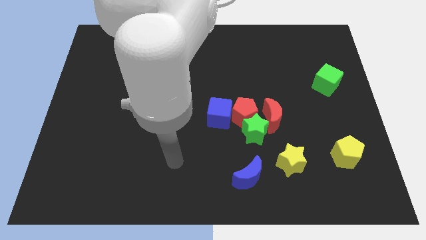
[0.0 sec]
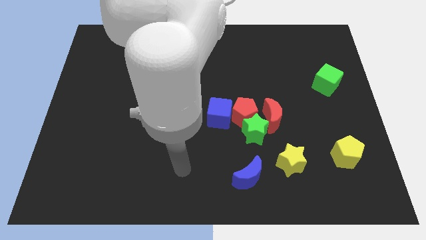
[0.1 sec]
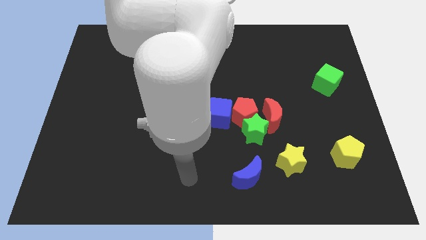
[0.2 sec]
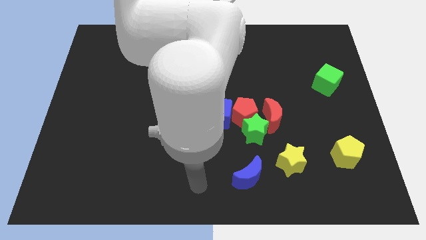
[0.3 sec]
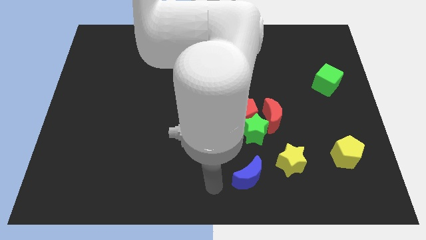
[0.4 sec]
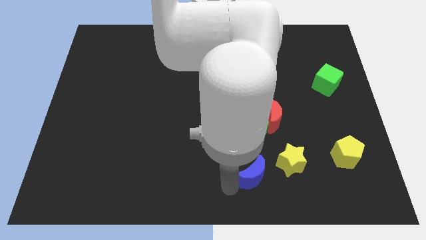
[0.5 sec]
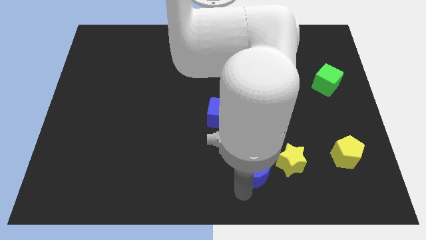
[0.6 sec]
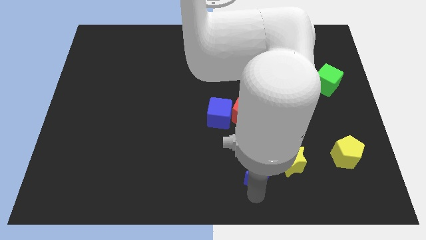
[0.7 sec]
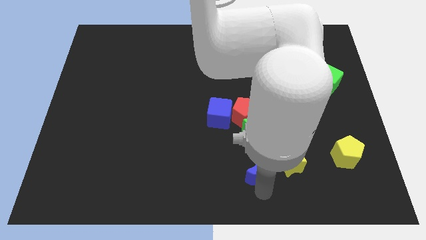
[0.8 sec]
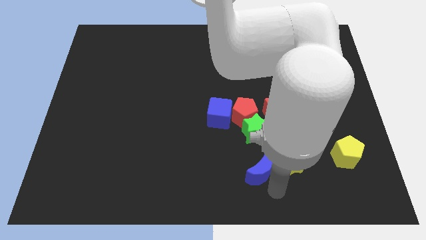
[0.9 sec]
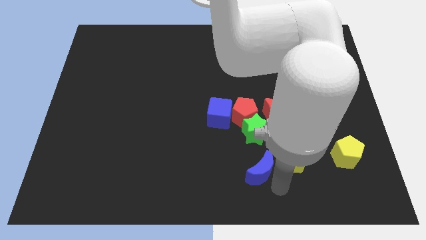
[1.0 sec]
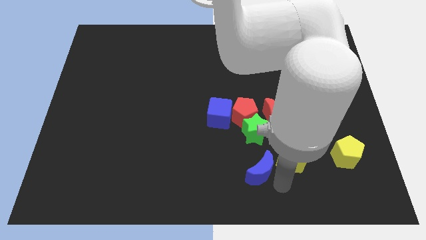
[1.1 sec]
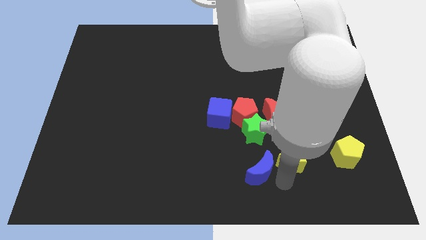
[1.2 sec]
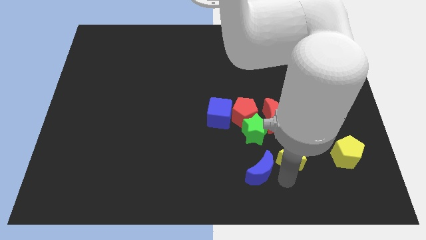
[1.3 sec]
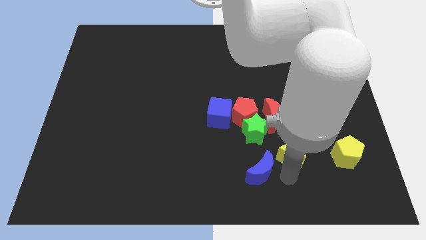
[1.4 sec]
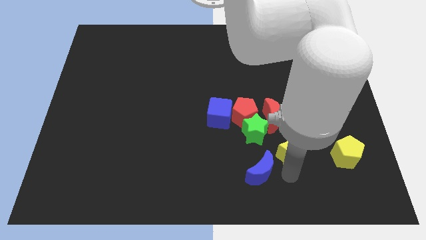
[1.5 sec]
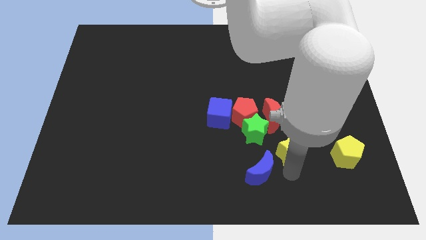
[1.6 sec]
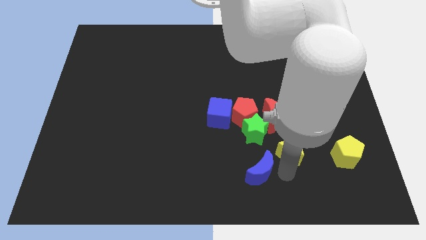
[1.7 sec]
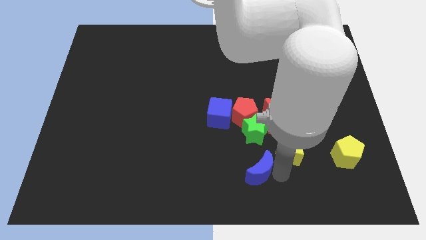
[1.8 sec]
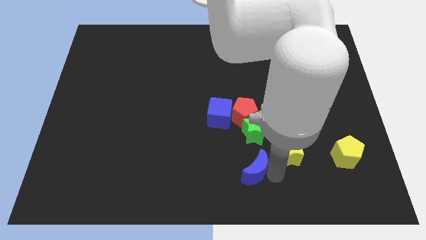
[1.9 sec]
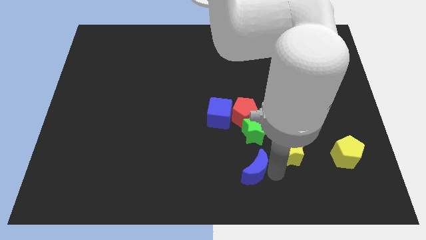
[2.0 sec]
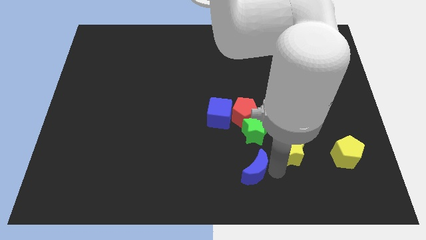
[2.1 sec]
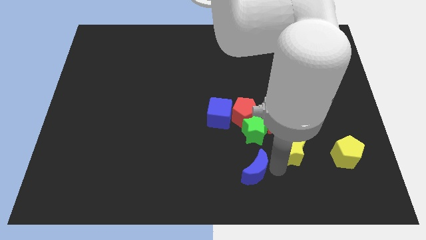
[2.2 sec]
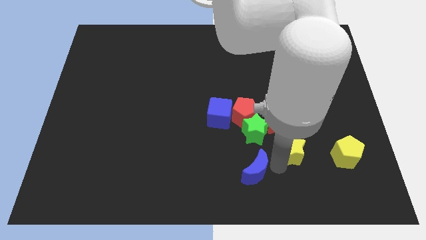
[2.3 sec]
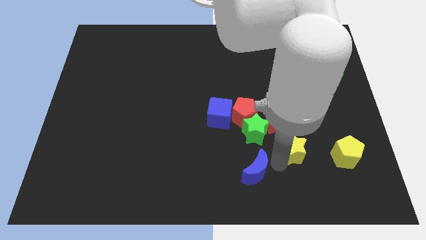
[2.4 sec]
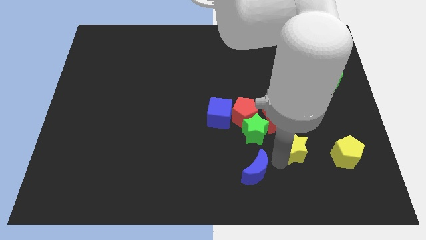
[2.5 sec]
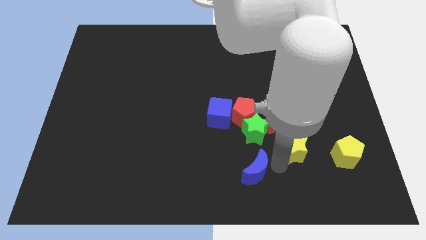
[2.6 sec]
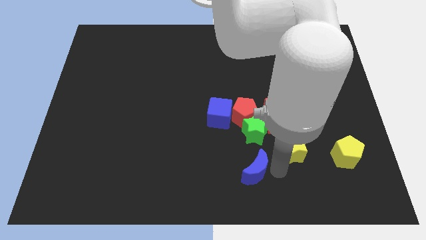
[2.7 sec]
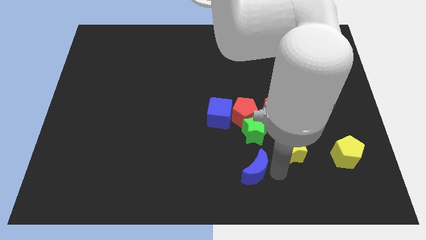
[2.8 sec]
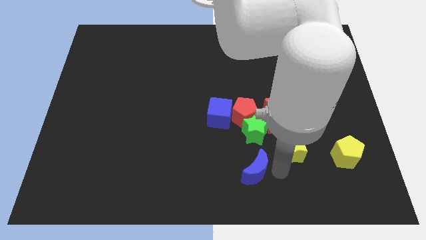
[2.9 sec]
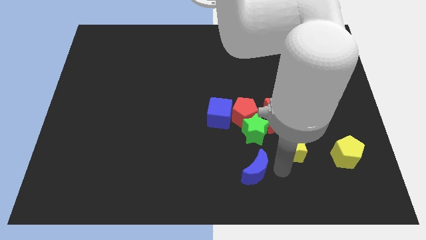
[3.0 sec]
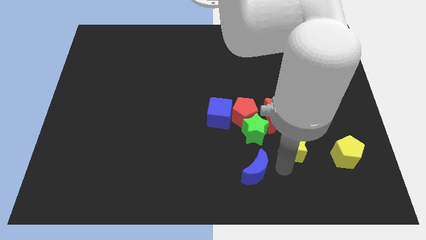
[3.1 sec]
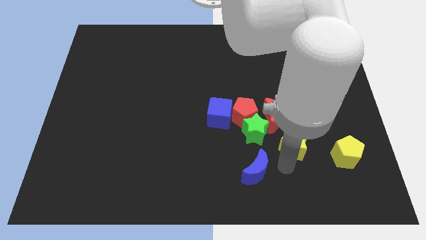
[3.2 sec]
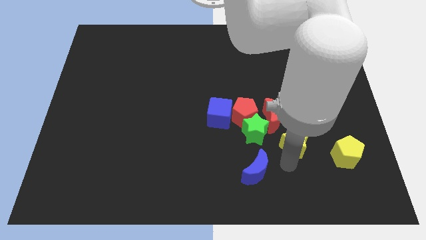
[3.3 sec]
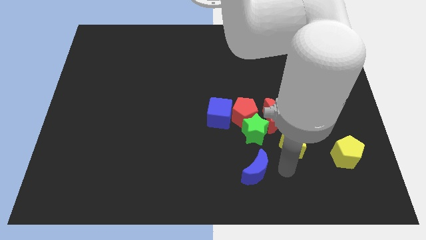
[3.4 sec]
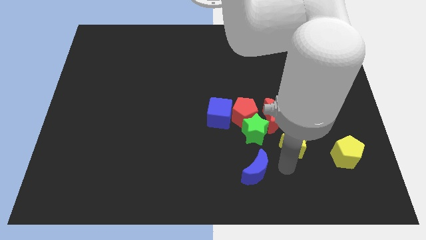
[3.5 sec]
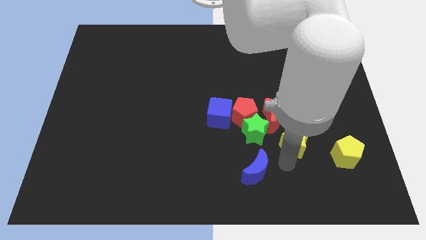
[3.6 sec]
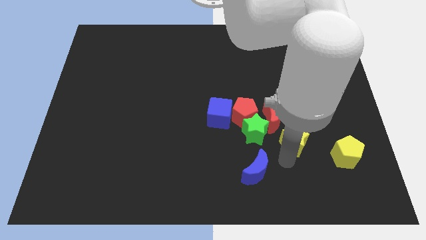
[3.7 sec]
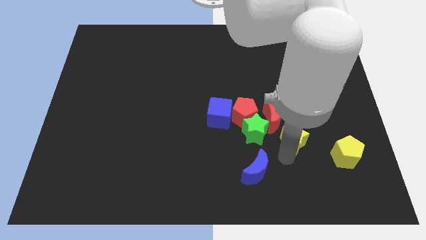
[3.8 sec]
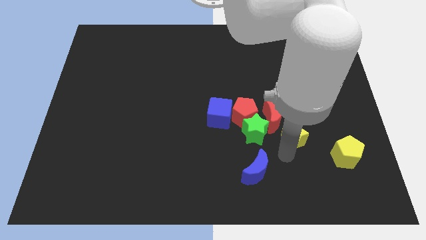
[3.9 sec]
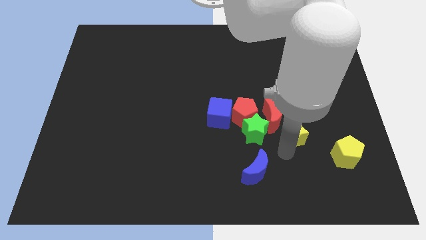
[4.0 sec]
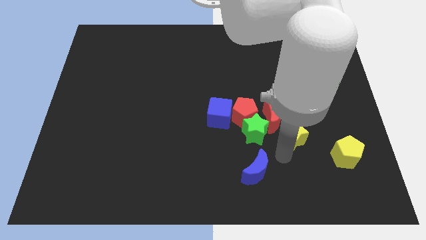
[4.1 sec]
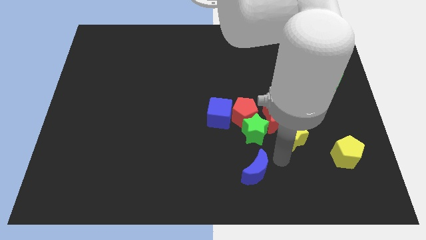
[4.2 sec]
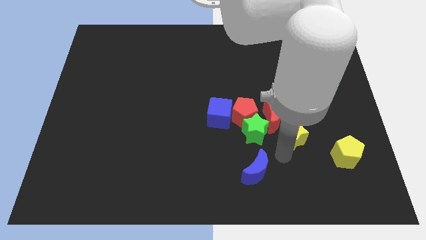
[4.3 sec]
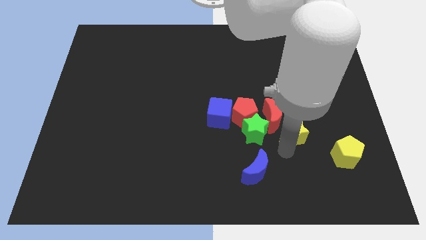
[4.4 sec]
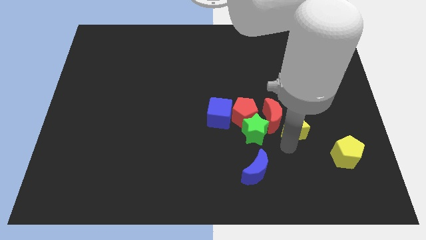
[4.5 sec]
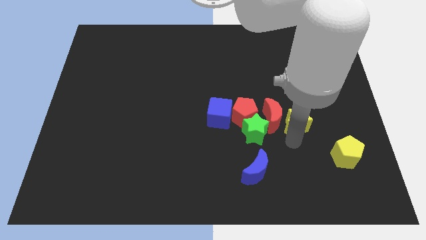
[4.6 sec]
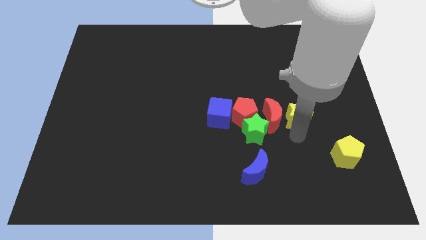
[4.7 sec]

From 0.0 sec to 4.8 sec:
move the yellow star diagonally up and to the right of the green star

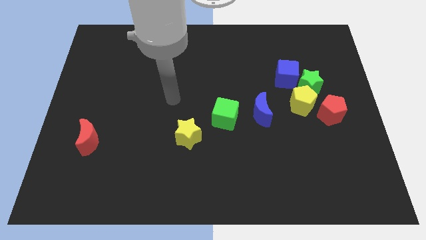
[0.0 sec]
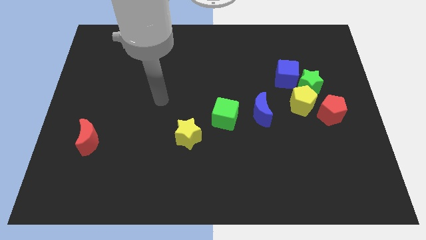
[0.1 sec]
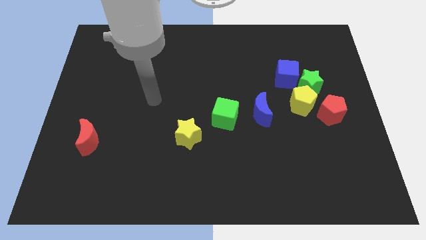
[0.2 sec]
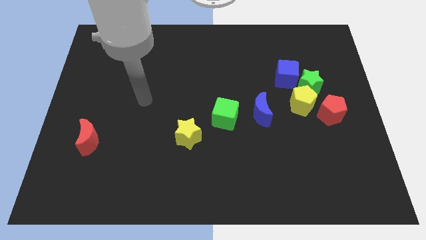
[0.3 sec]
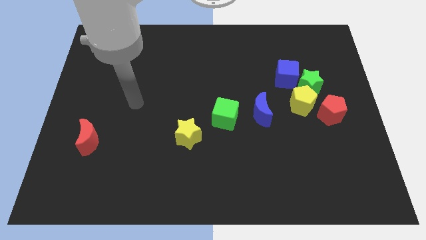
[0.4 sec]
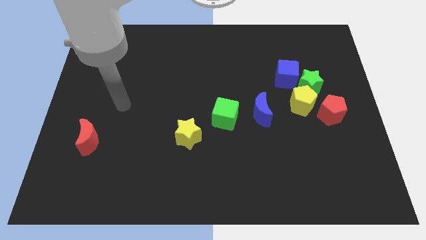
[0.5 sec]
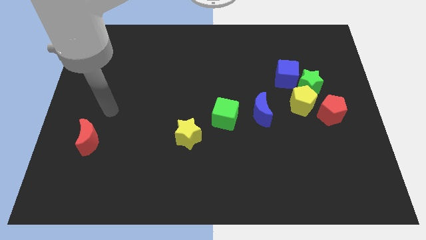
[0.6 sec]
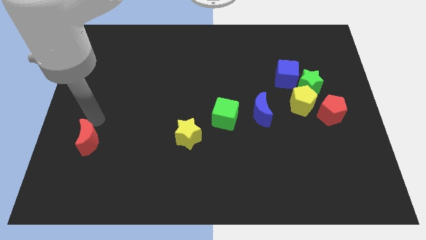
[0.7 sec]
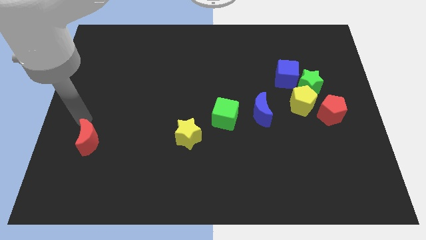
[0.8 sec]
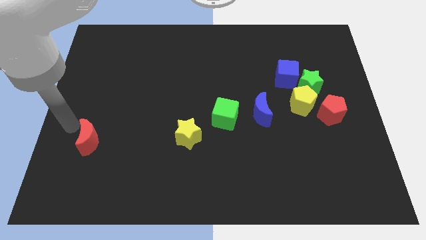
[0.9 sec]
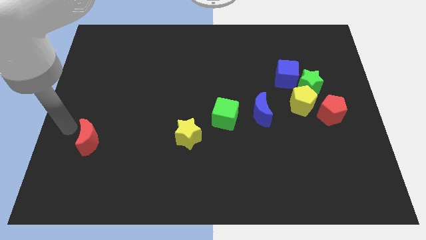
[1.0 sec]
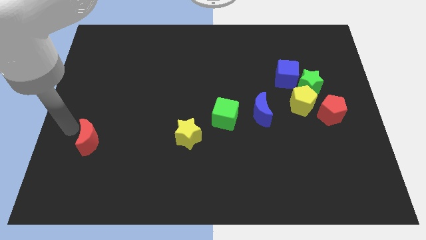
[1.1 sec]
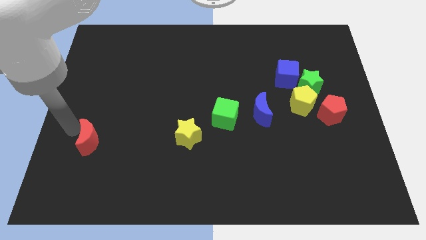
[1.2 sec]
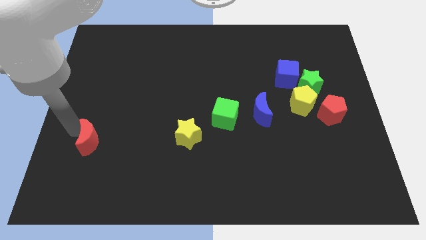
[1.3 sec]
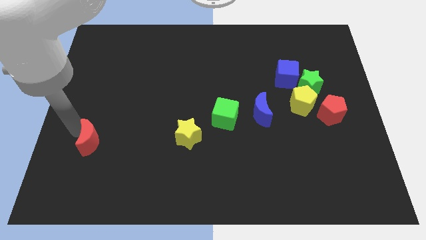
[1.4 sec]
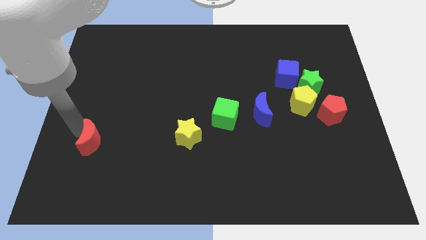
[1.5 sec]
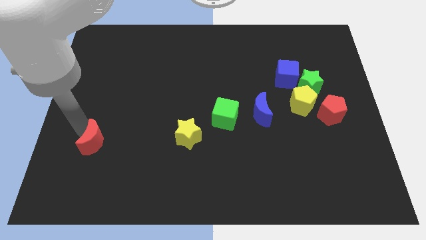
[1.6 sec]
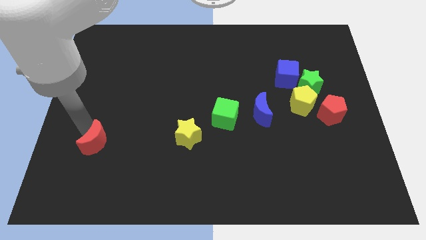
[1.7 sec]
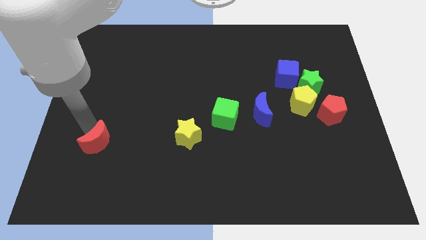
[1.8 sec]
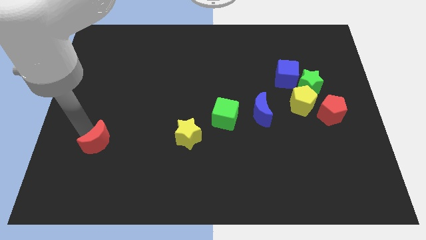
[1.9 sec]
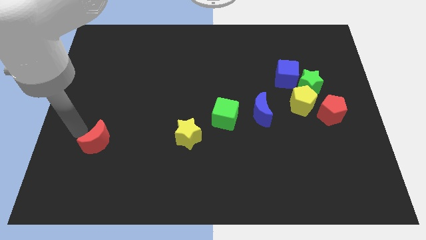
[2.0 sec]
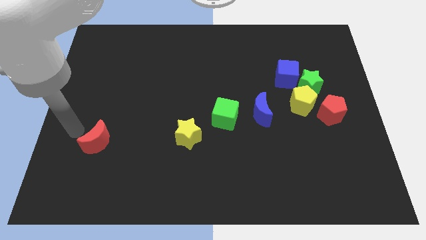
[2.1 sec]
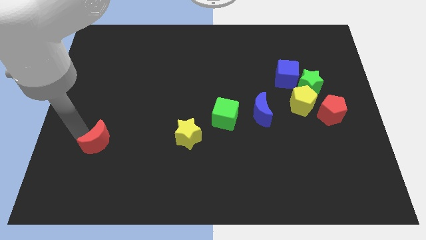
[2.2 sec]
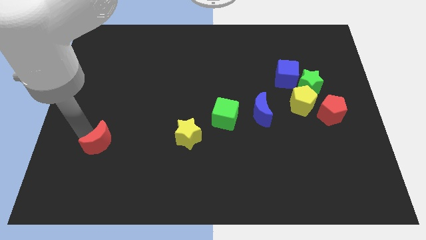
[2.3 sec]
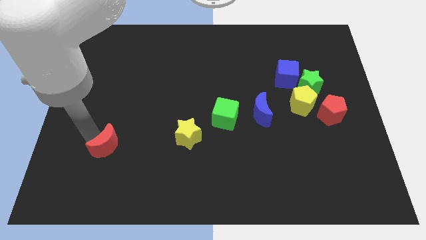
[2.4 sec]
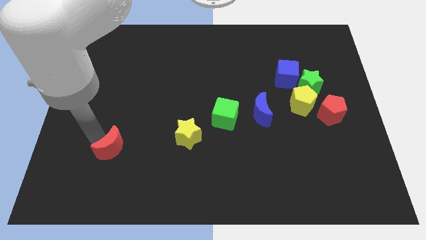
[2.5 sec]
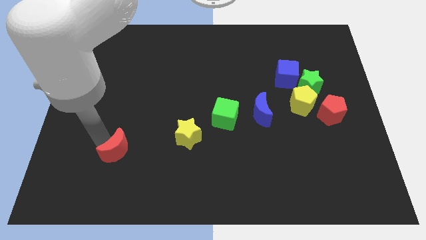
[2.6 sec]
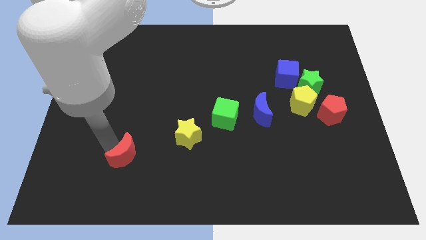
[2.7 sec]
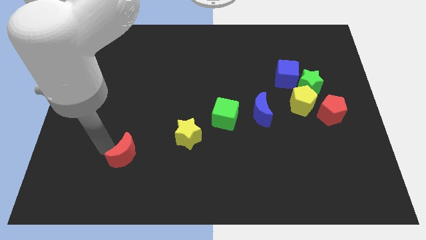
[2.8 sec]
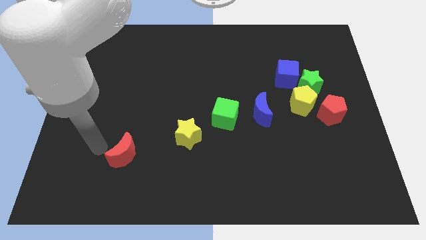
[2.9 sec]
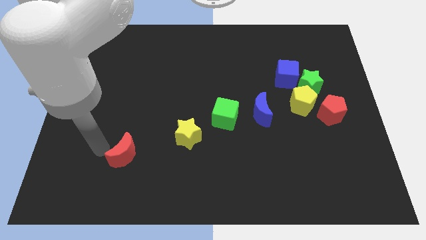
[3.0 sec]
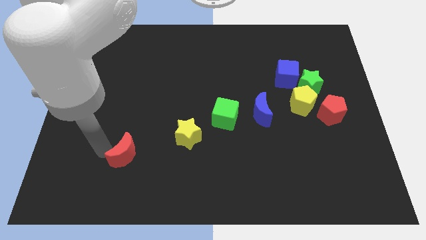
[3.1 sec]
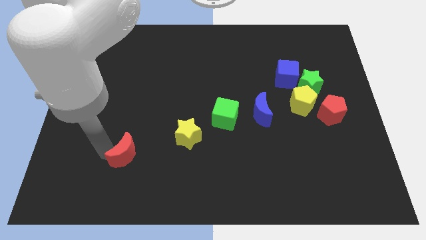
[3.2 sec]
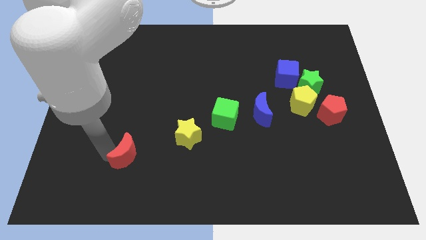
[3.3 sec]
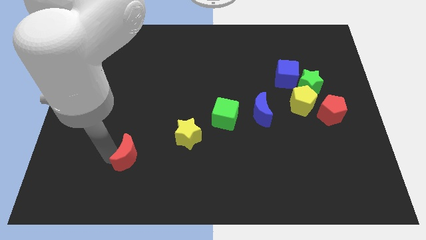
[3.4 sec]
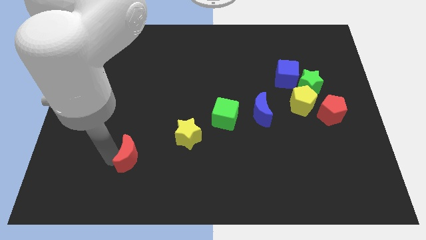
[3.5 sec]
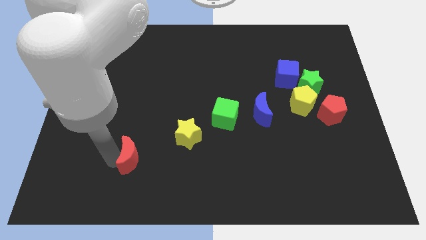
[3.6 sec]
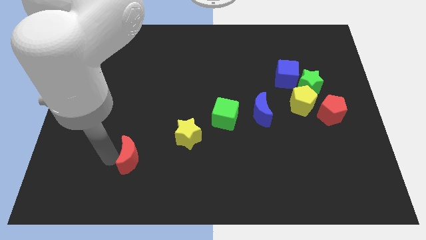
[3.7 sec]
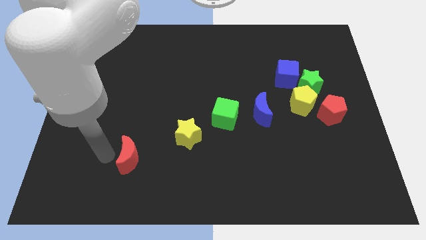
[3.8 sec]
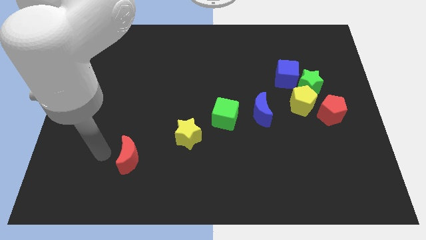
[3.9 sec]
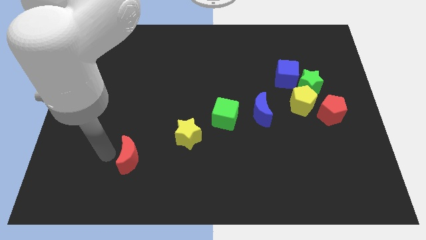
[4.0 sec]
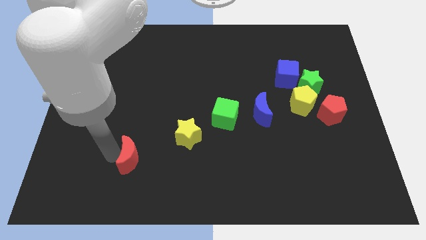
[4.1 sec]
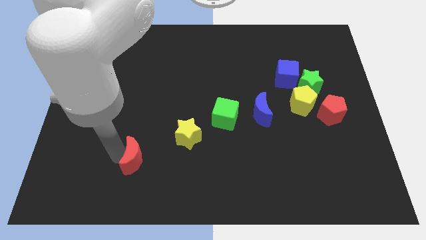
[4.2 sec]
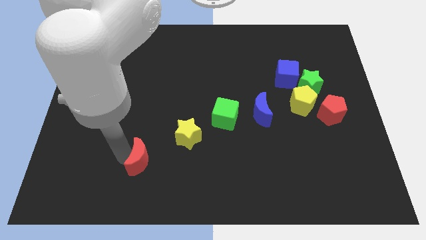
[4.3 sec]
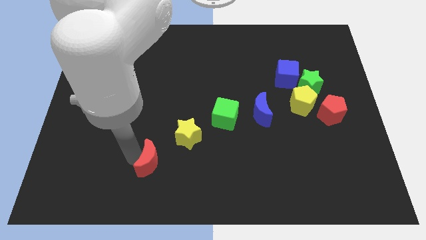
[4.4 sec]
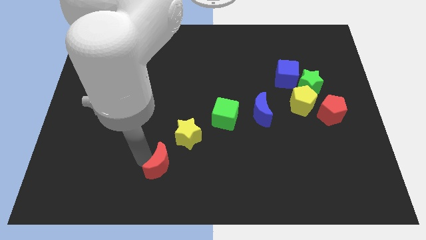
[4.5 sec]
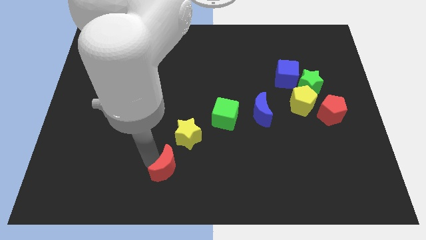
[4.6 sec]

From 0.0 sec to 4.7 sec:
push the red moon to the bottom of the yellow star
